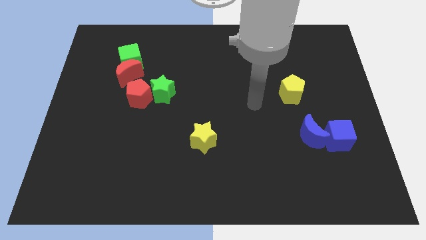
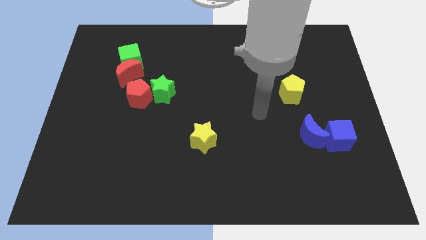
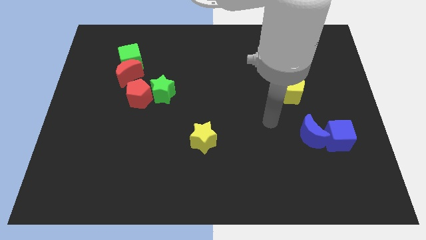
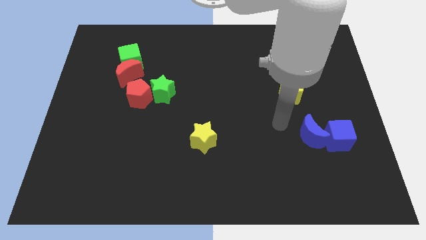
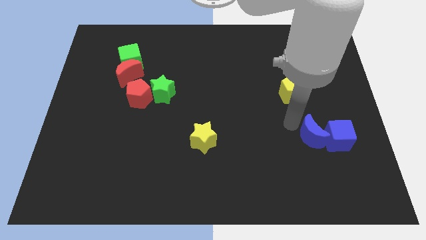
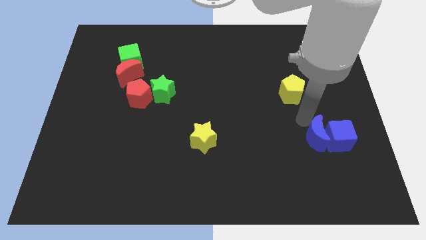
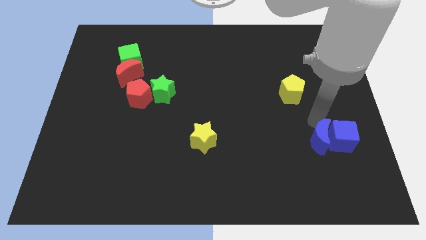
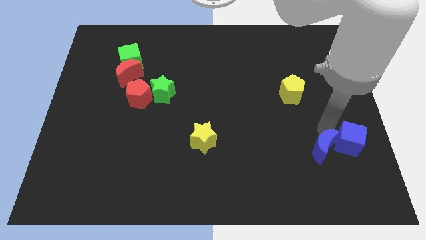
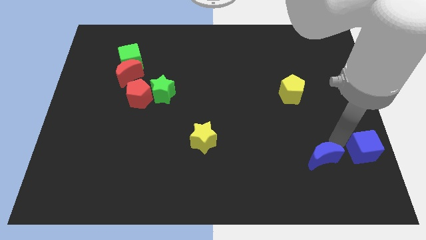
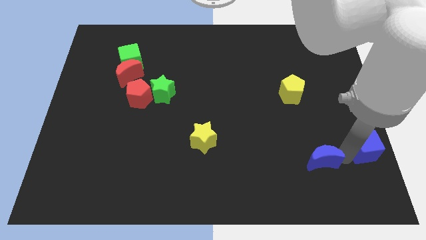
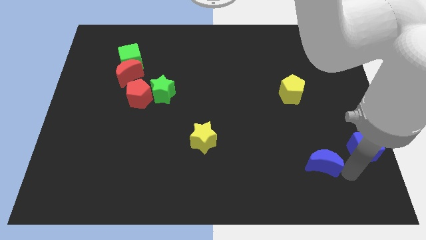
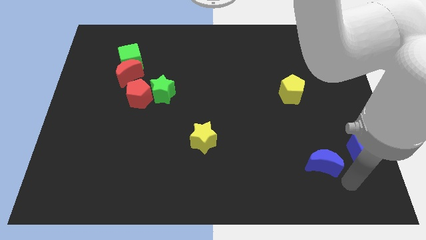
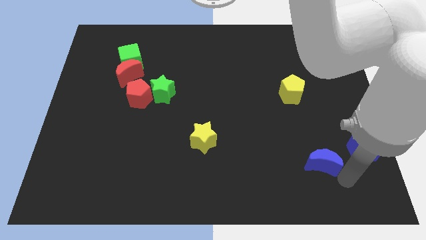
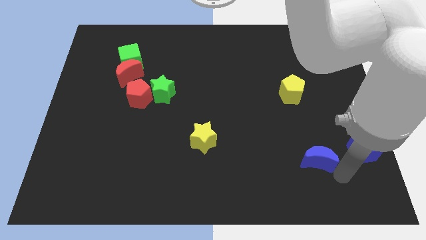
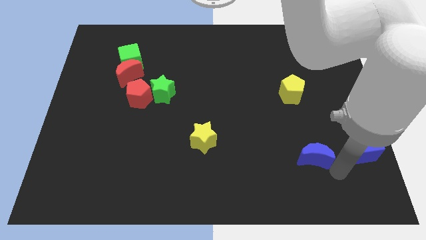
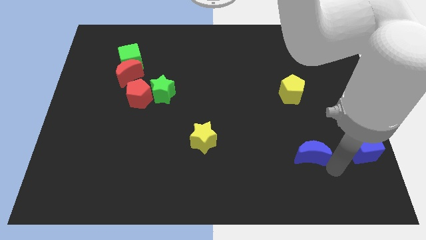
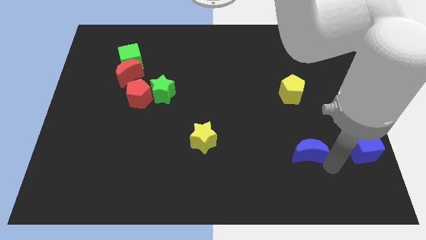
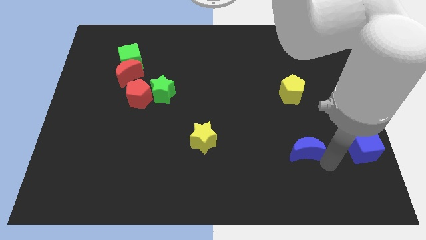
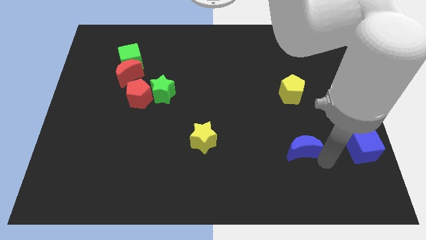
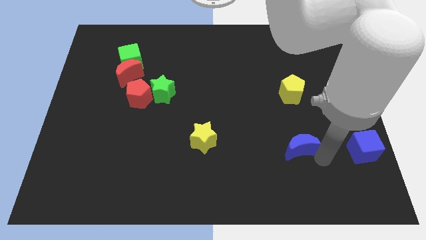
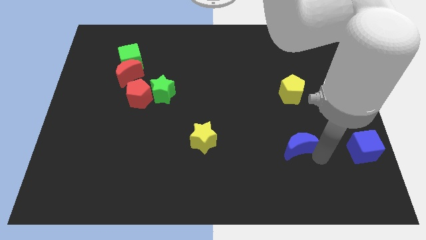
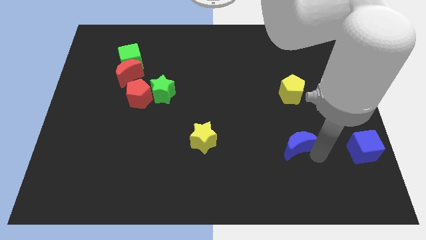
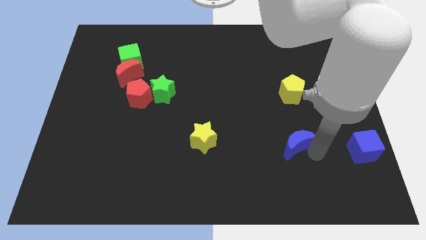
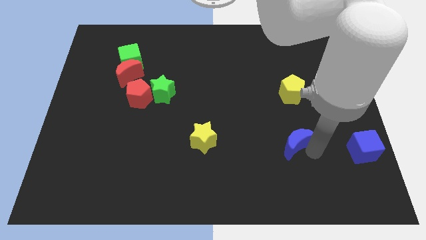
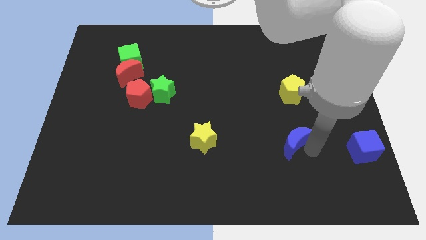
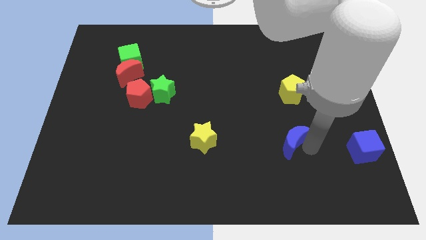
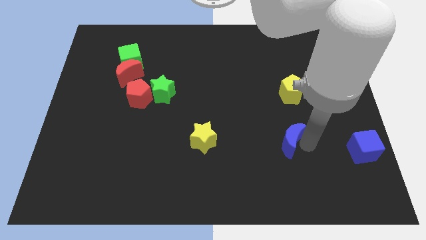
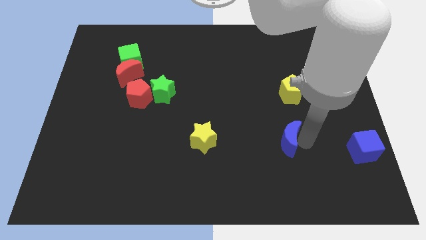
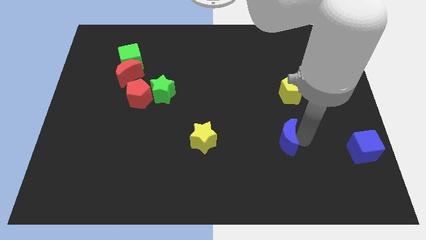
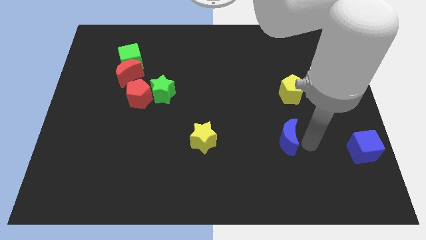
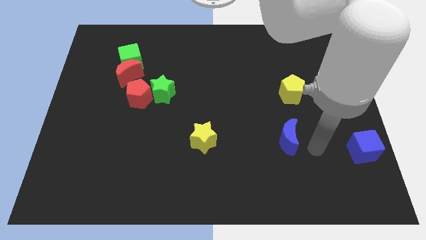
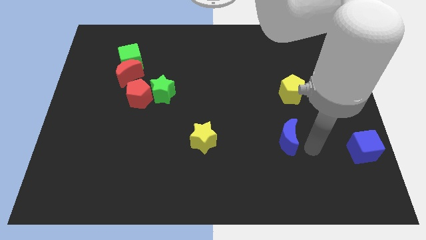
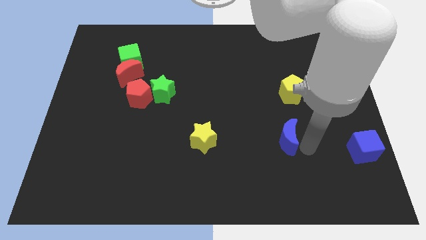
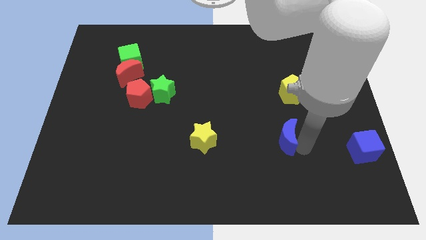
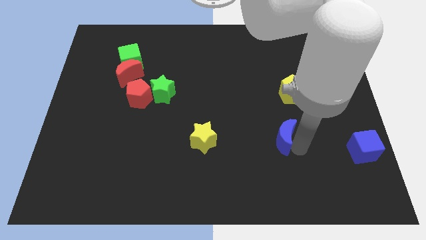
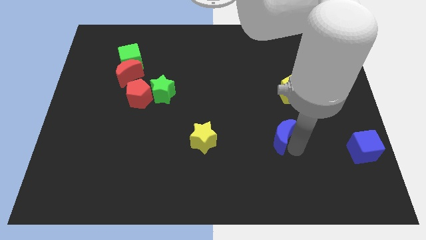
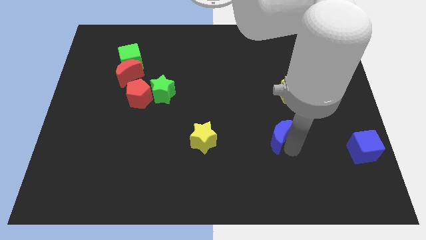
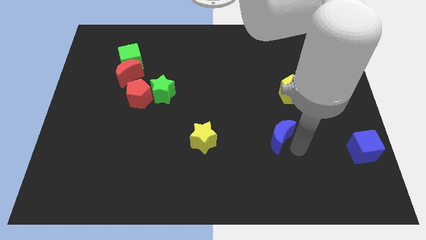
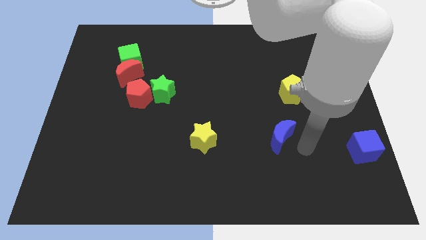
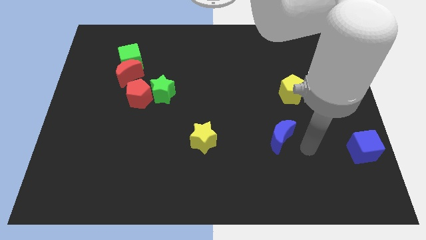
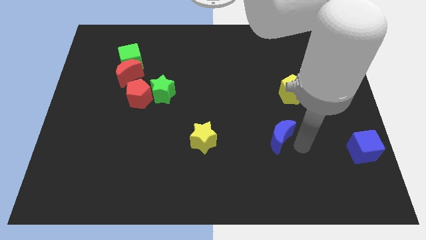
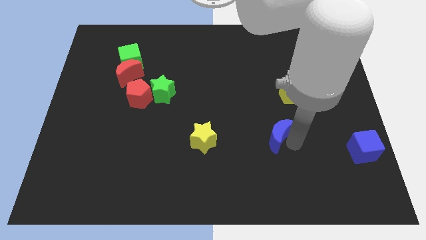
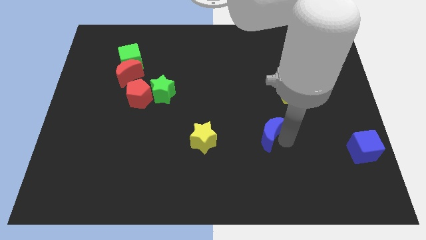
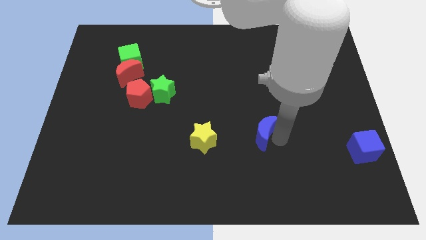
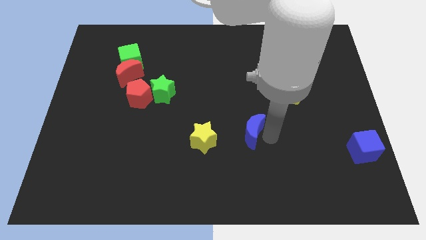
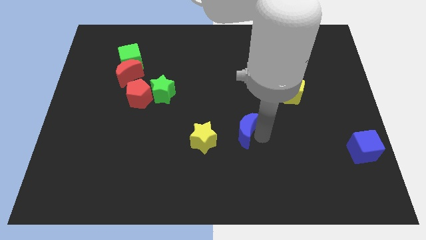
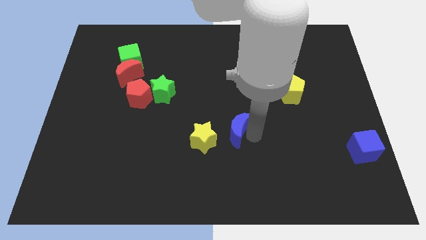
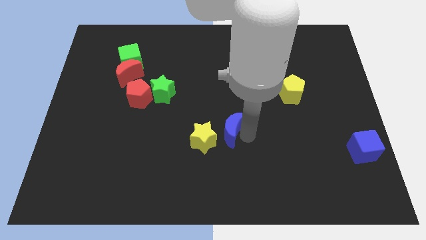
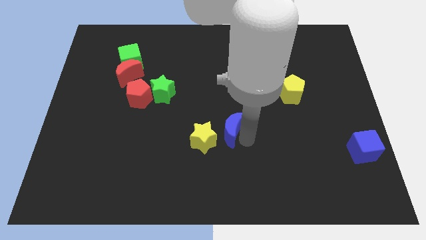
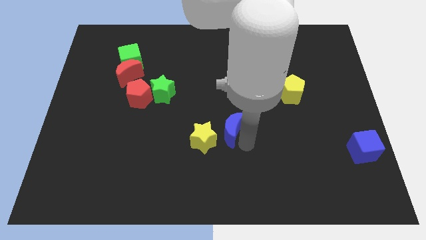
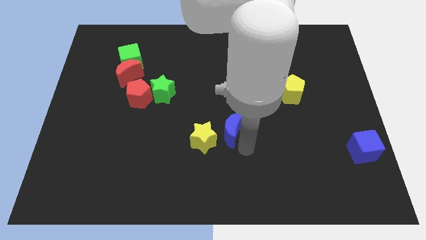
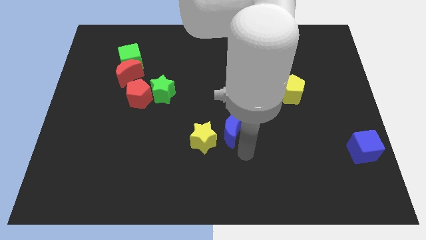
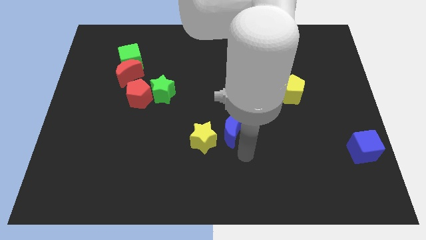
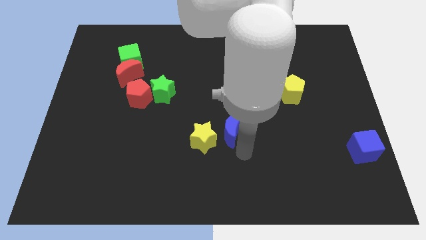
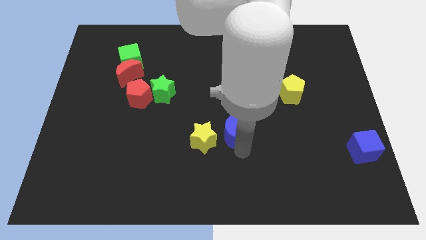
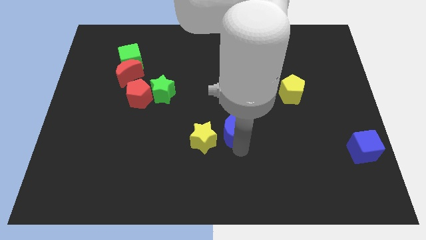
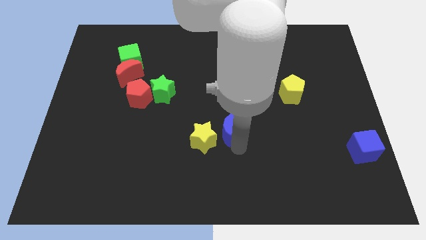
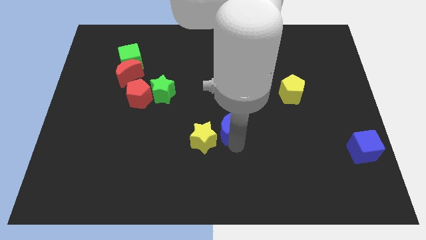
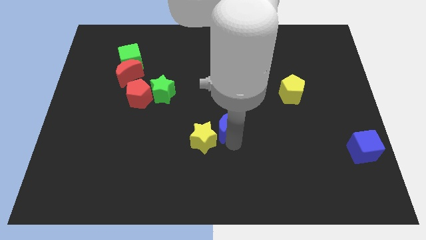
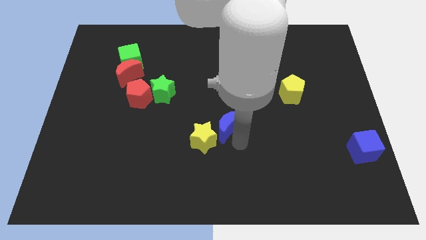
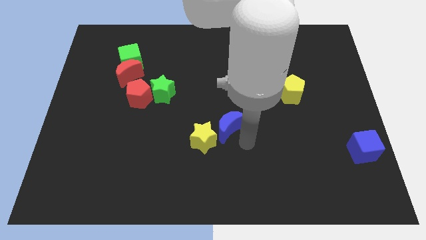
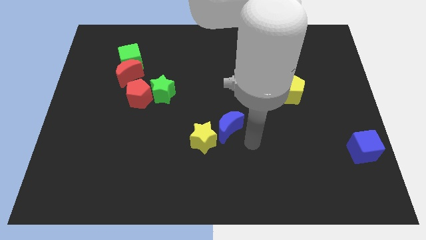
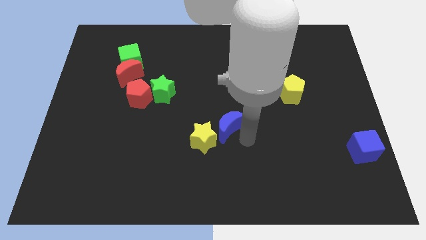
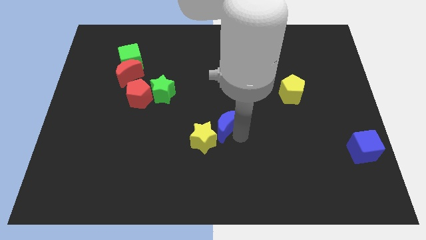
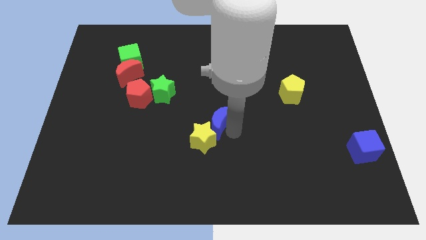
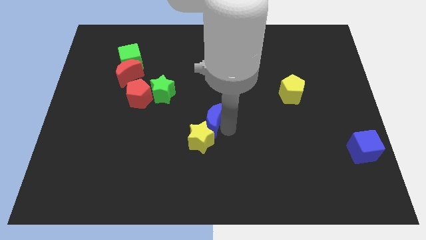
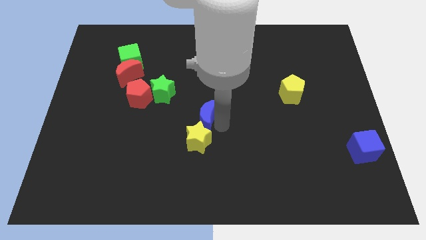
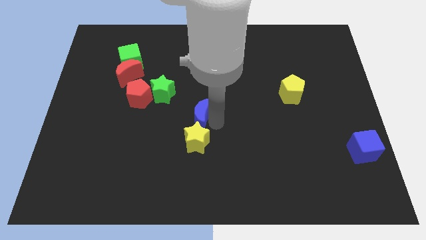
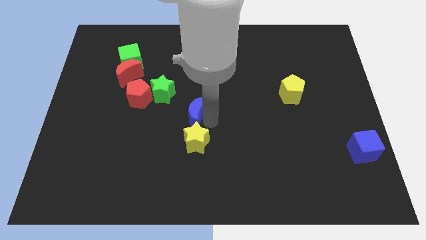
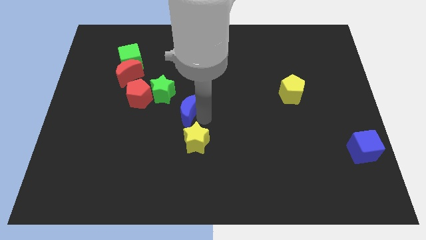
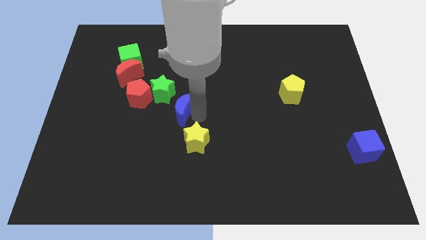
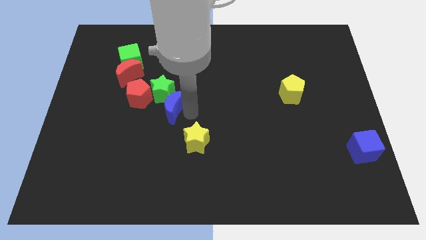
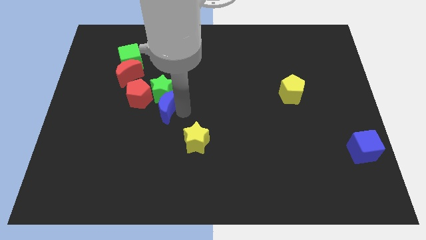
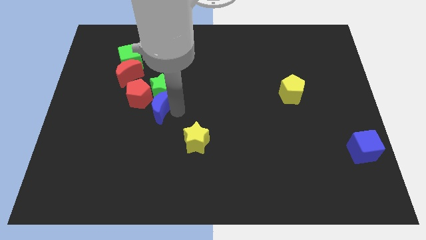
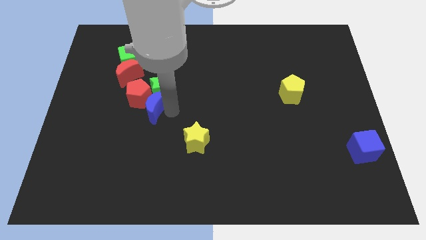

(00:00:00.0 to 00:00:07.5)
slide the blue moon next to the red pentagon
